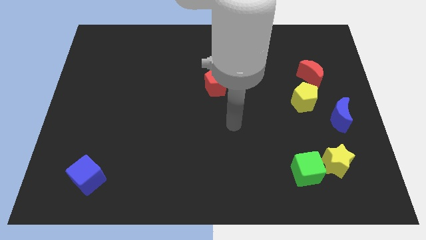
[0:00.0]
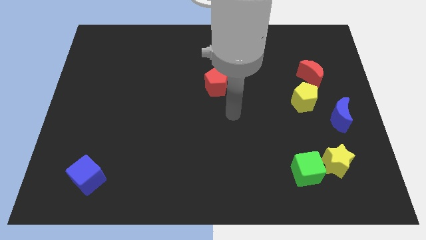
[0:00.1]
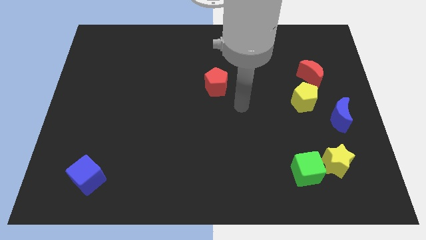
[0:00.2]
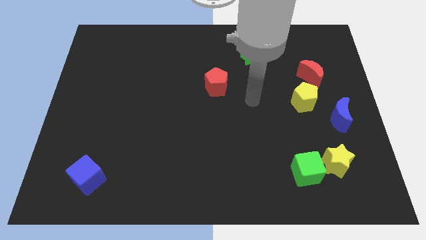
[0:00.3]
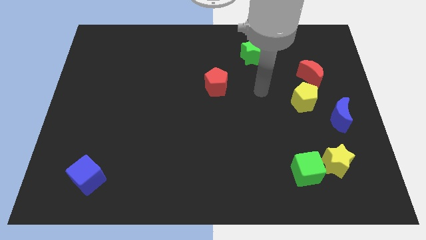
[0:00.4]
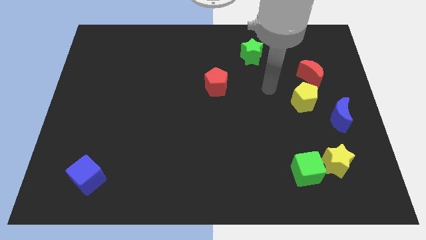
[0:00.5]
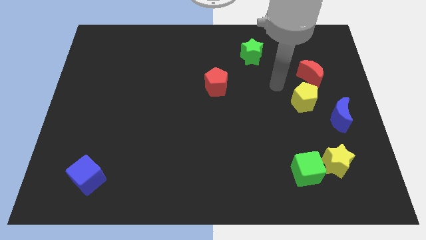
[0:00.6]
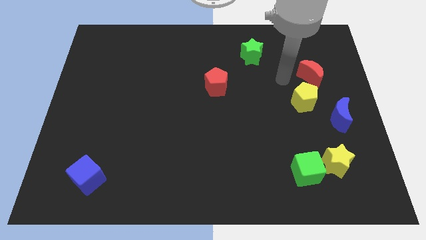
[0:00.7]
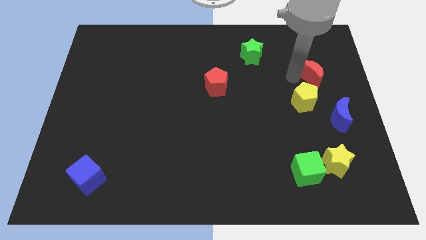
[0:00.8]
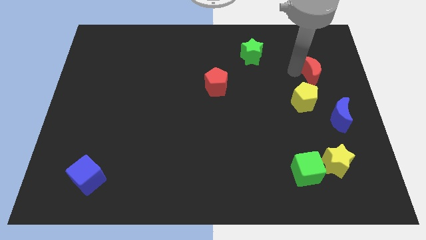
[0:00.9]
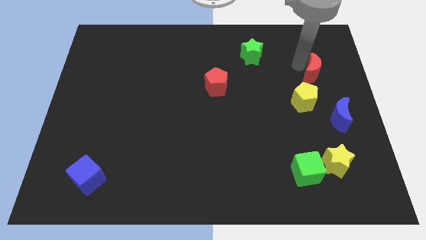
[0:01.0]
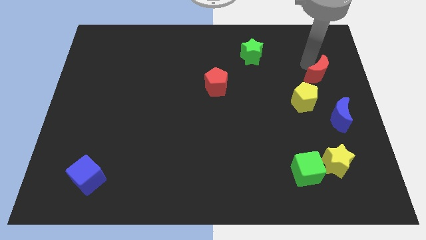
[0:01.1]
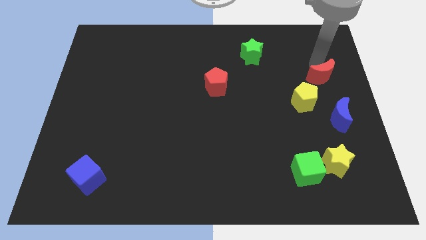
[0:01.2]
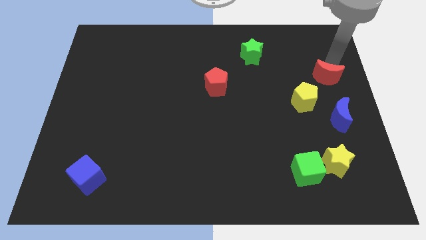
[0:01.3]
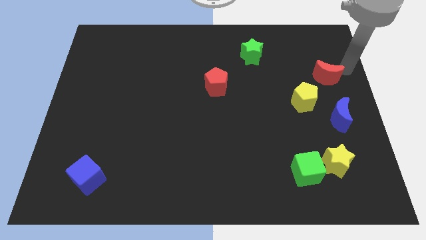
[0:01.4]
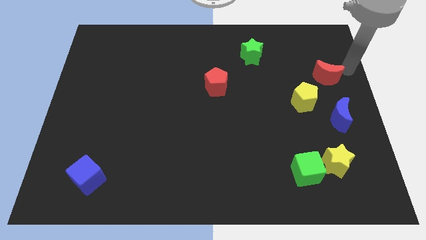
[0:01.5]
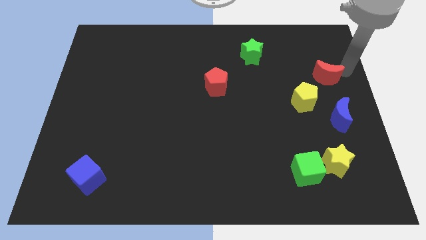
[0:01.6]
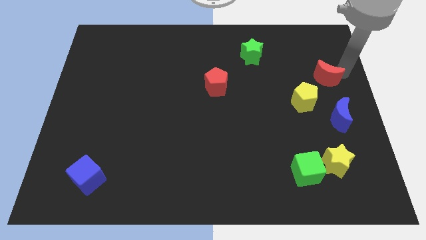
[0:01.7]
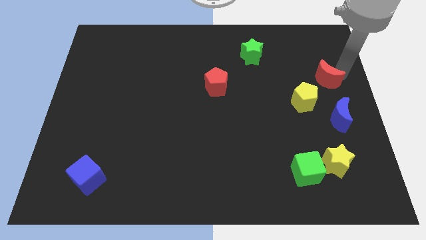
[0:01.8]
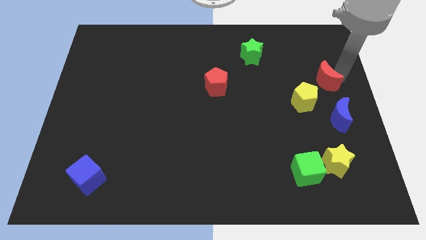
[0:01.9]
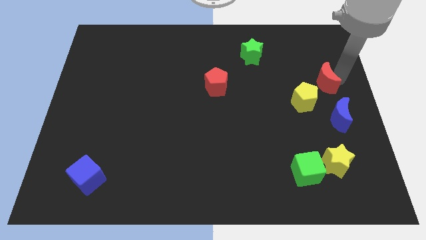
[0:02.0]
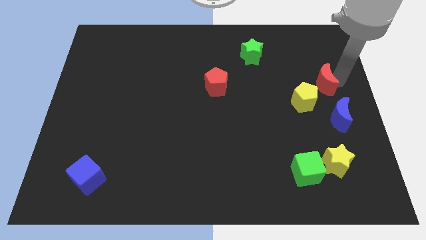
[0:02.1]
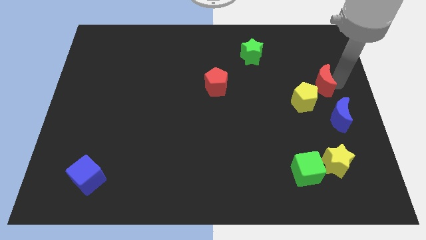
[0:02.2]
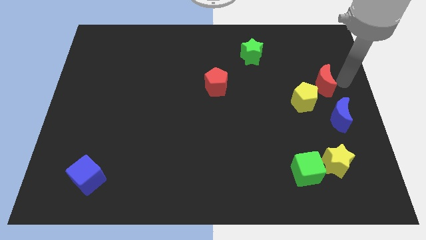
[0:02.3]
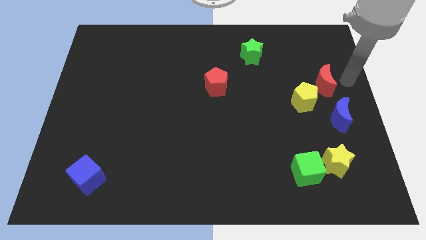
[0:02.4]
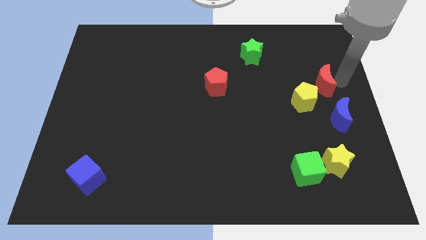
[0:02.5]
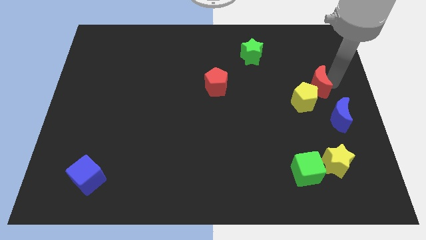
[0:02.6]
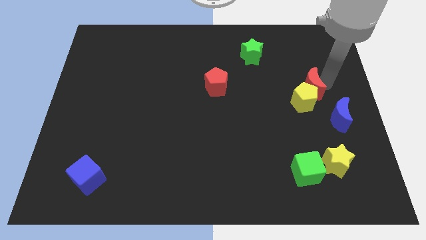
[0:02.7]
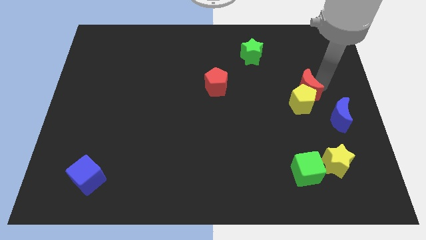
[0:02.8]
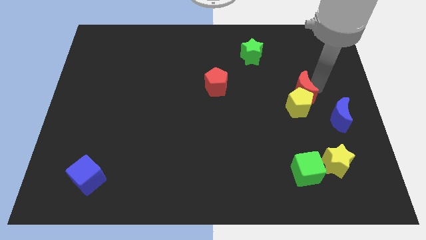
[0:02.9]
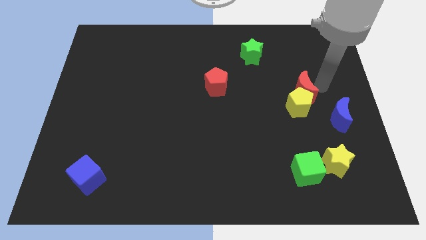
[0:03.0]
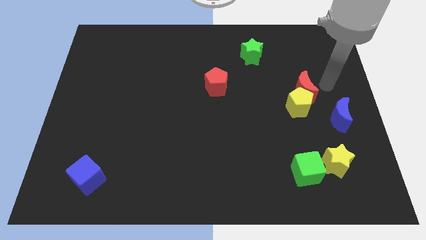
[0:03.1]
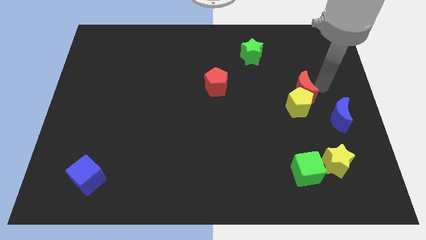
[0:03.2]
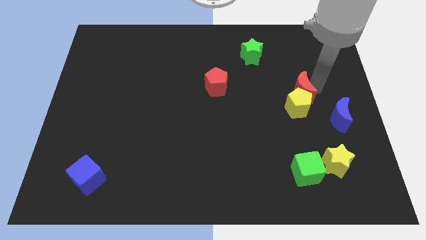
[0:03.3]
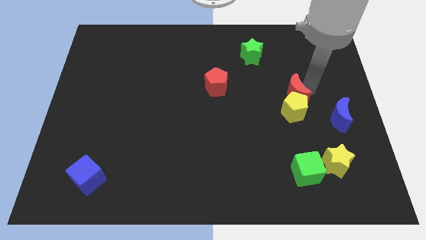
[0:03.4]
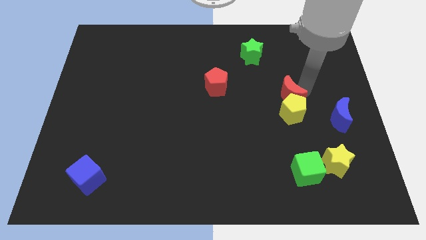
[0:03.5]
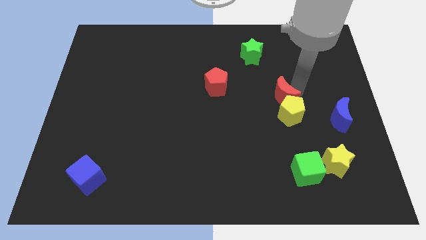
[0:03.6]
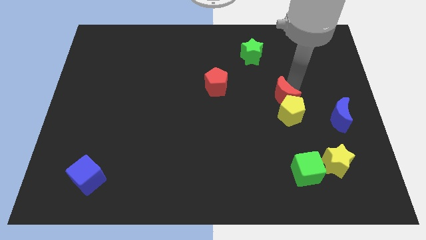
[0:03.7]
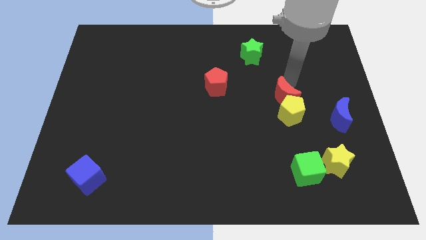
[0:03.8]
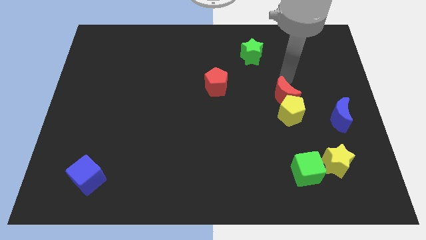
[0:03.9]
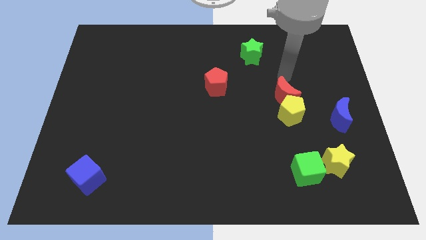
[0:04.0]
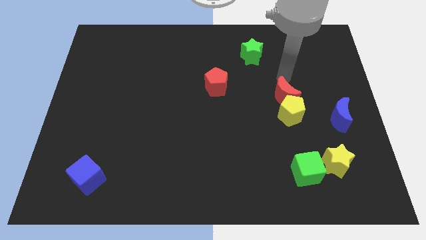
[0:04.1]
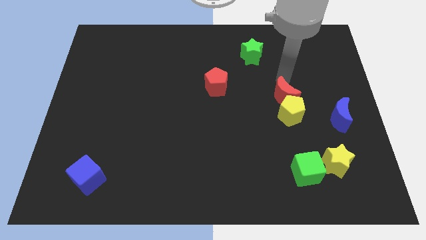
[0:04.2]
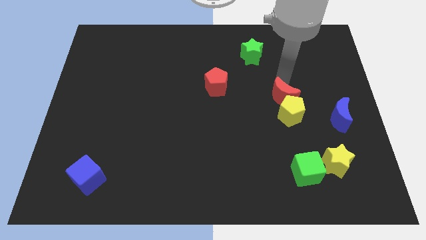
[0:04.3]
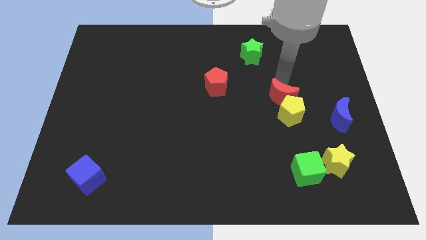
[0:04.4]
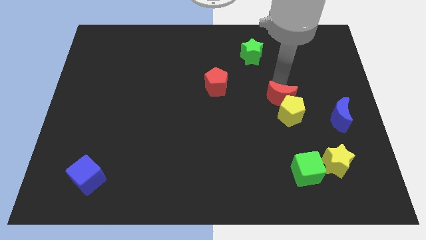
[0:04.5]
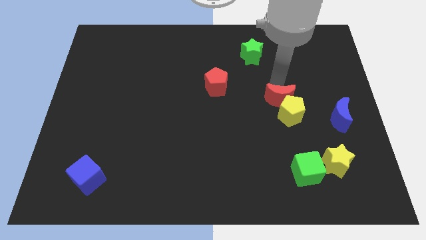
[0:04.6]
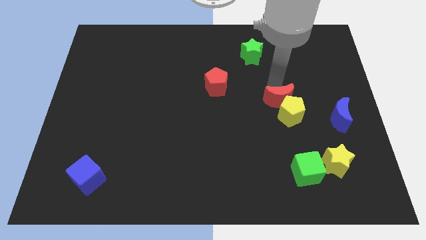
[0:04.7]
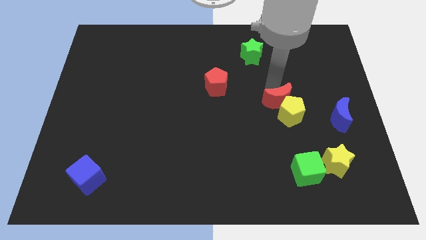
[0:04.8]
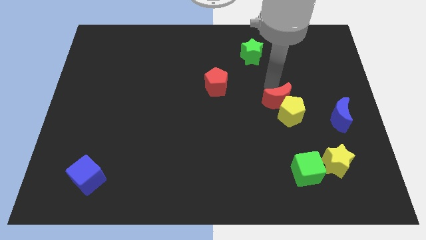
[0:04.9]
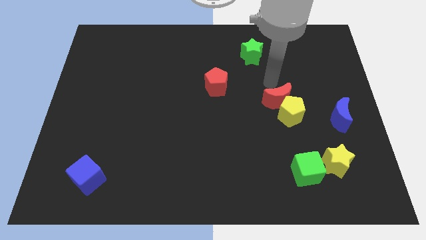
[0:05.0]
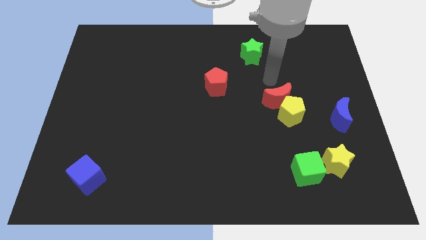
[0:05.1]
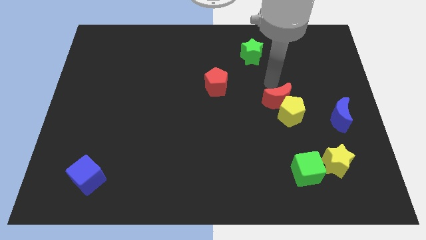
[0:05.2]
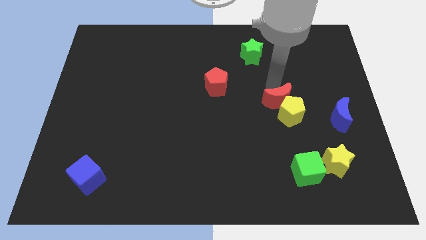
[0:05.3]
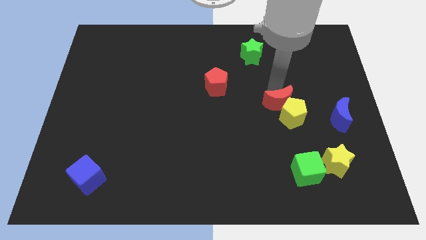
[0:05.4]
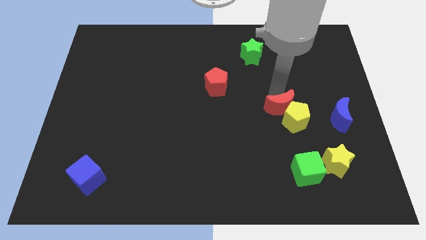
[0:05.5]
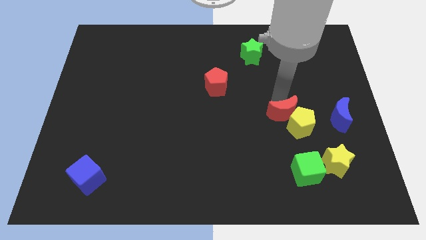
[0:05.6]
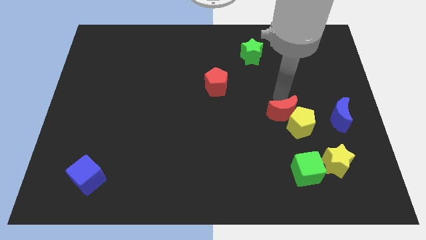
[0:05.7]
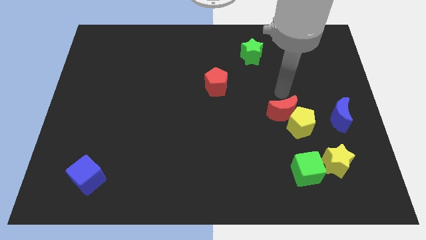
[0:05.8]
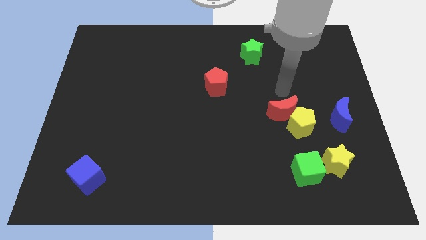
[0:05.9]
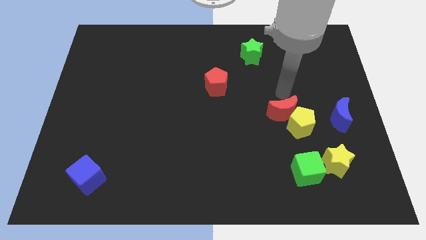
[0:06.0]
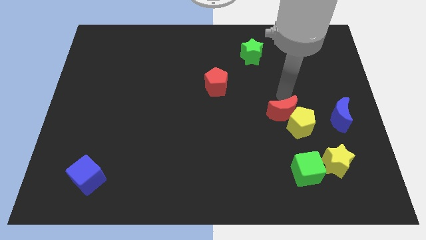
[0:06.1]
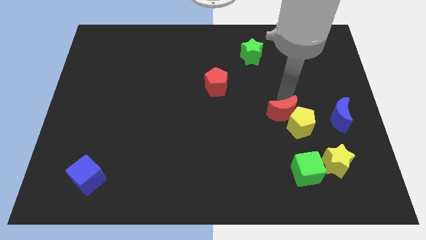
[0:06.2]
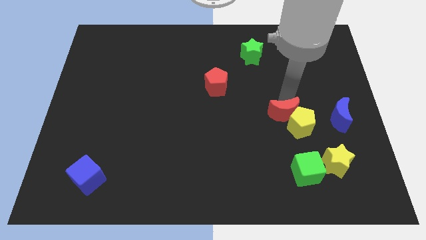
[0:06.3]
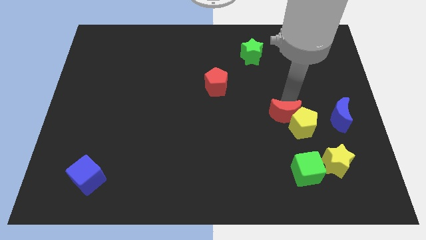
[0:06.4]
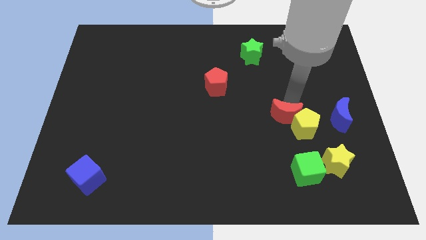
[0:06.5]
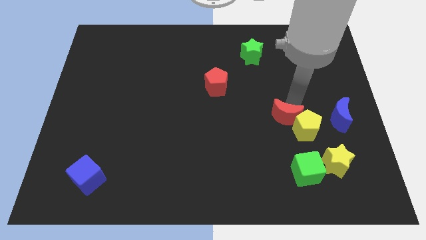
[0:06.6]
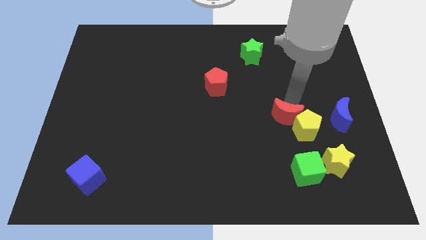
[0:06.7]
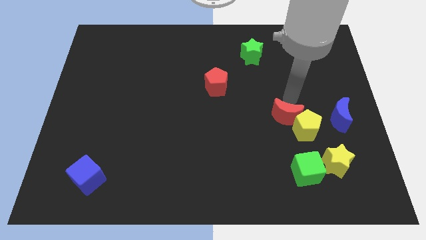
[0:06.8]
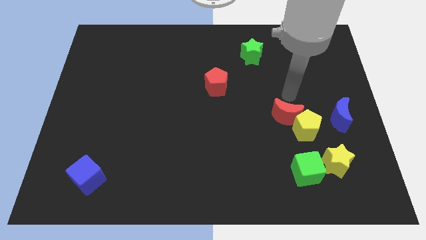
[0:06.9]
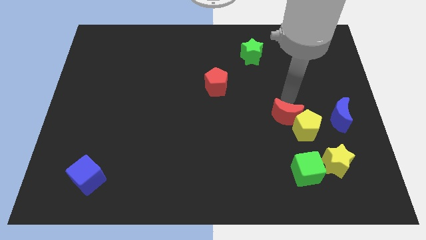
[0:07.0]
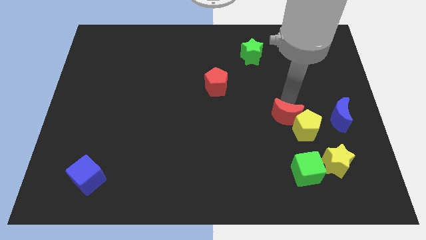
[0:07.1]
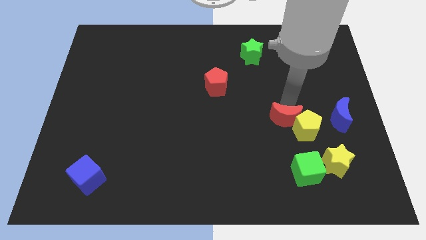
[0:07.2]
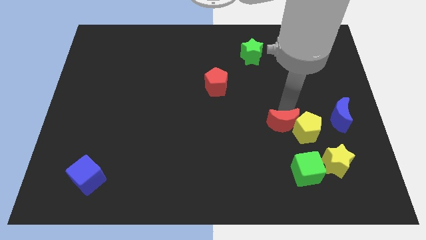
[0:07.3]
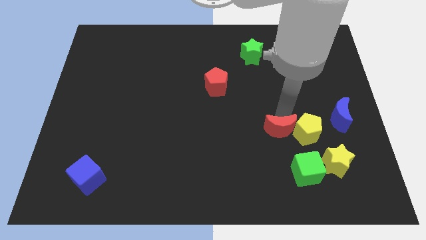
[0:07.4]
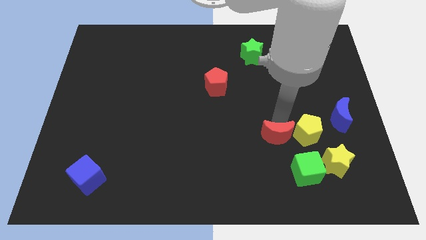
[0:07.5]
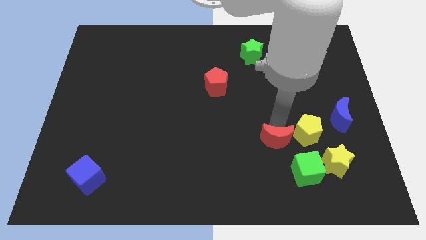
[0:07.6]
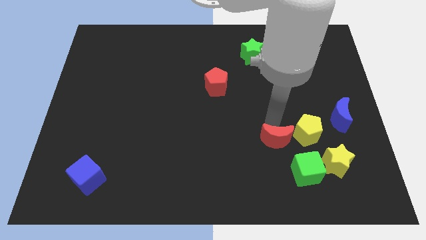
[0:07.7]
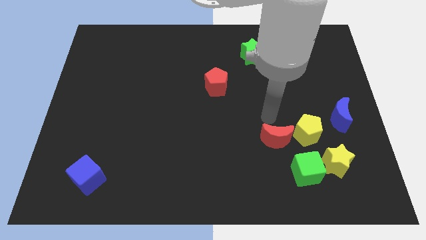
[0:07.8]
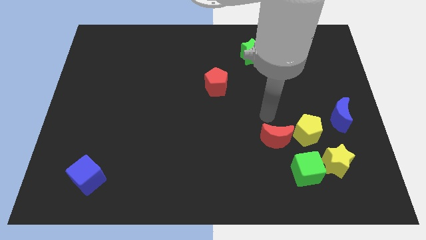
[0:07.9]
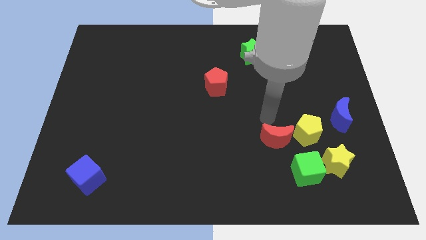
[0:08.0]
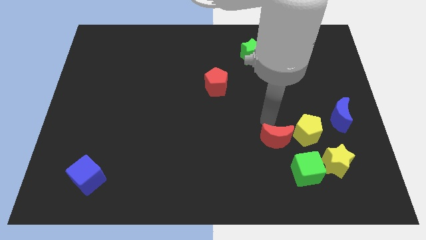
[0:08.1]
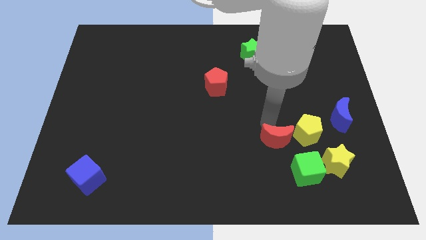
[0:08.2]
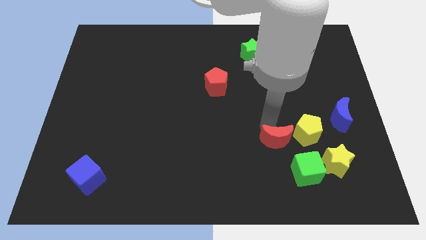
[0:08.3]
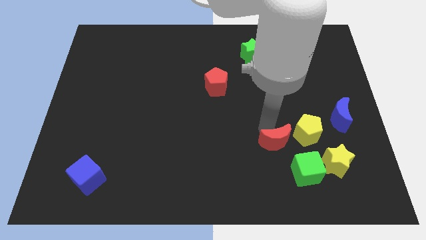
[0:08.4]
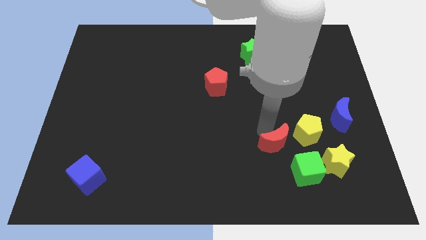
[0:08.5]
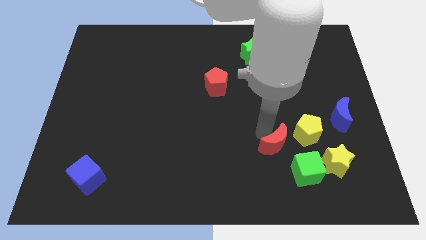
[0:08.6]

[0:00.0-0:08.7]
put the red moon just left of the yellow star
